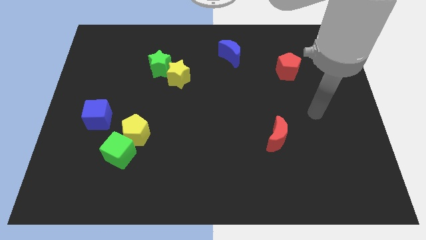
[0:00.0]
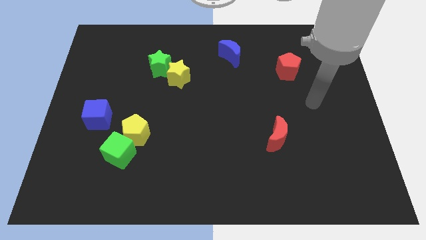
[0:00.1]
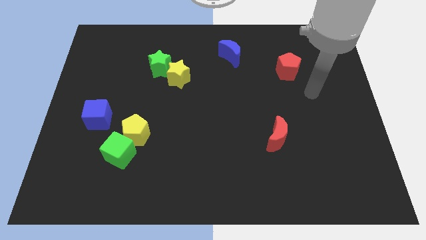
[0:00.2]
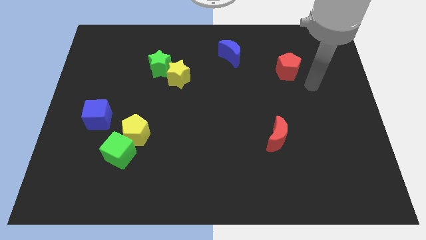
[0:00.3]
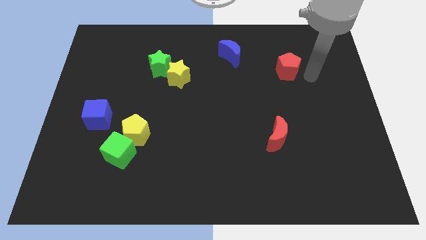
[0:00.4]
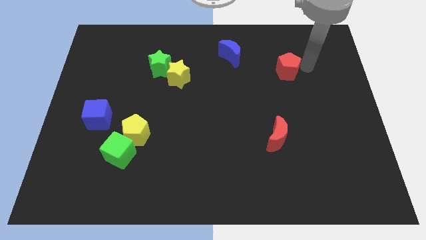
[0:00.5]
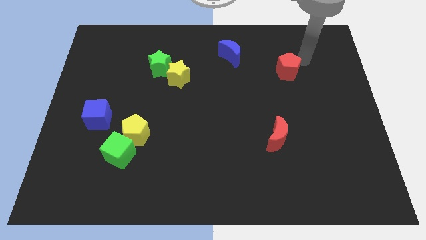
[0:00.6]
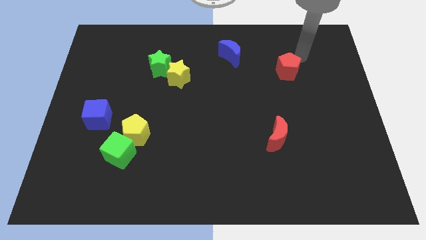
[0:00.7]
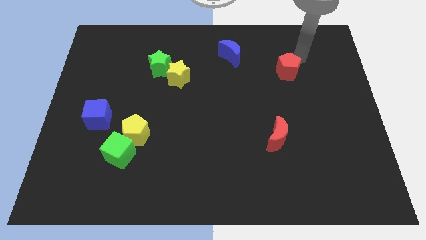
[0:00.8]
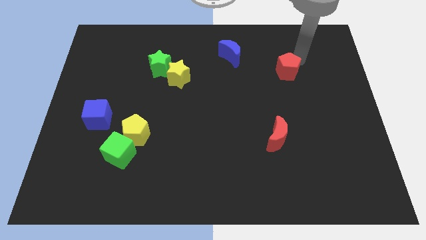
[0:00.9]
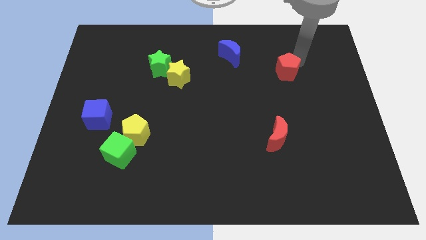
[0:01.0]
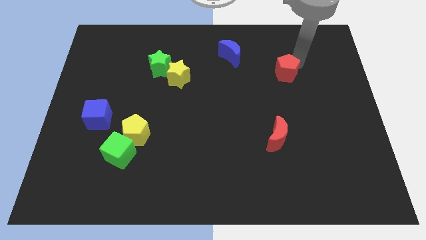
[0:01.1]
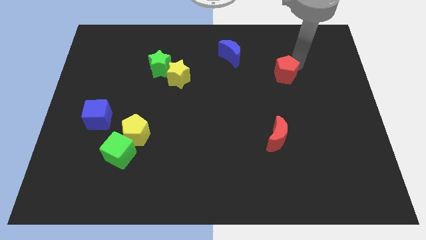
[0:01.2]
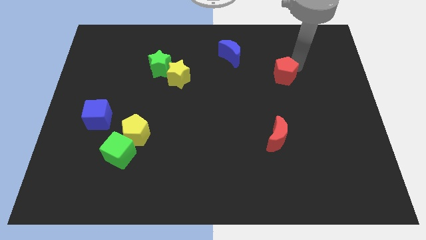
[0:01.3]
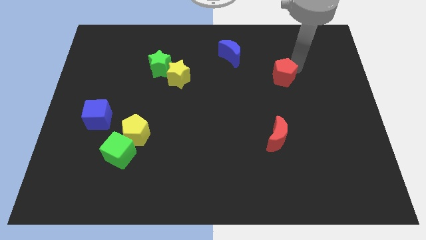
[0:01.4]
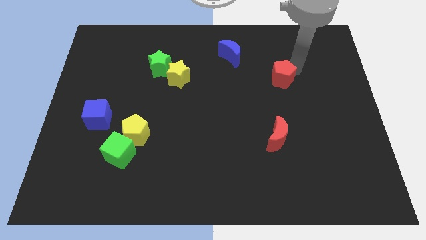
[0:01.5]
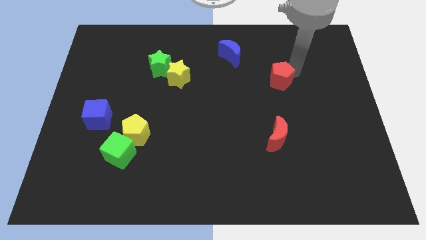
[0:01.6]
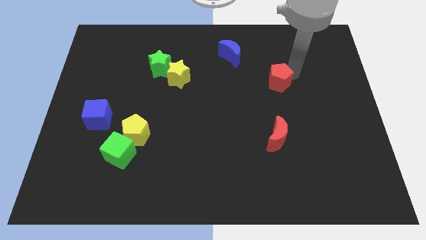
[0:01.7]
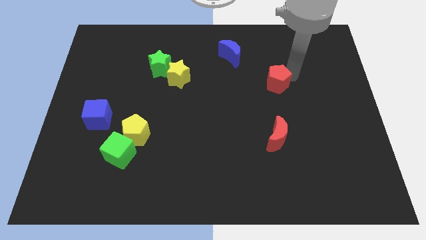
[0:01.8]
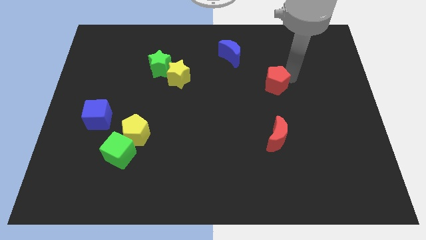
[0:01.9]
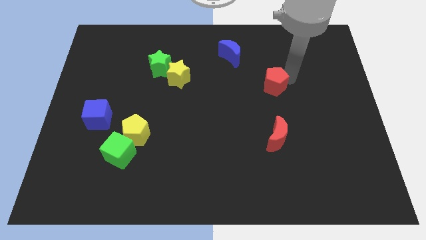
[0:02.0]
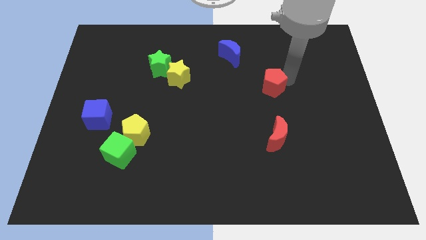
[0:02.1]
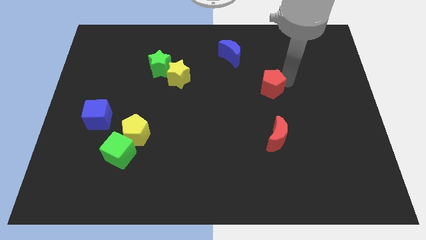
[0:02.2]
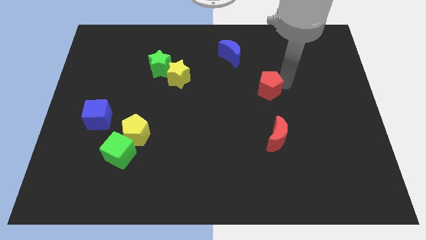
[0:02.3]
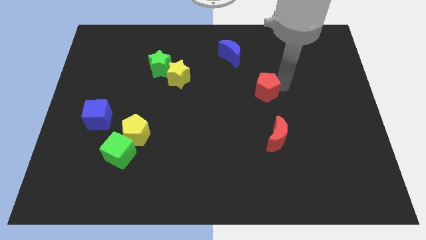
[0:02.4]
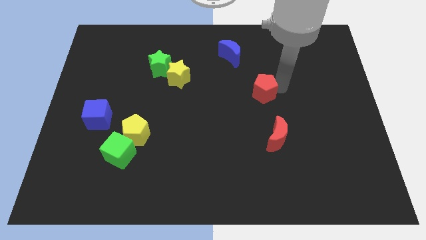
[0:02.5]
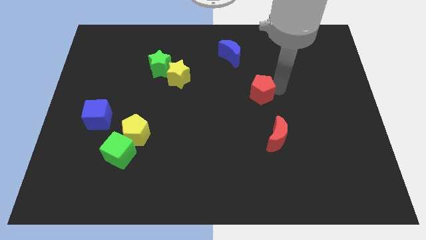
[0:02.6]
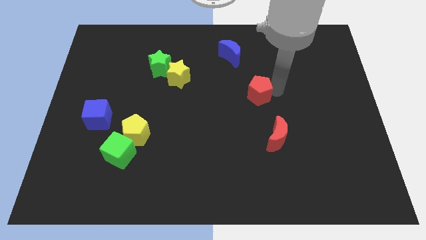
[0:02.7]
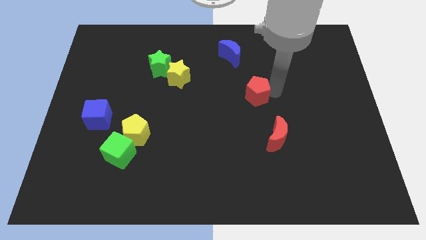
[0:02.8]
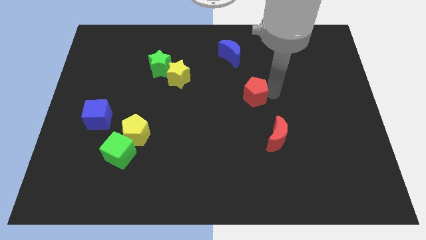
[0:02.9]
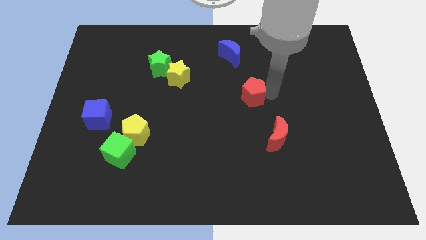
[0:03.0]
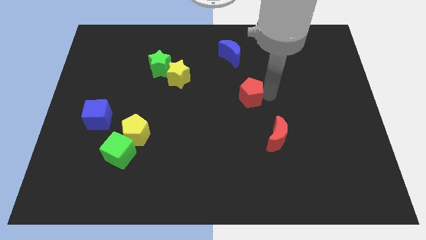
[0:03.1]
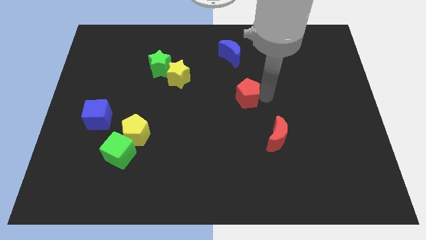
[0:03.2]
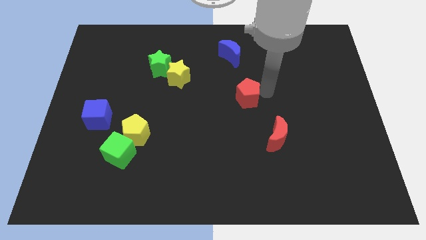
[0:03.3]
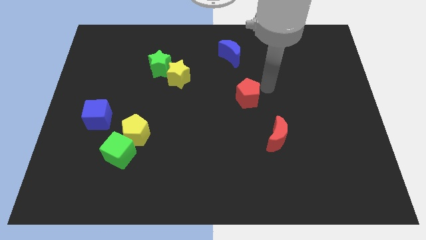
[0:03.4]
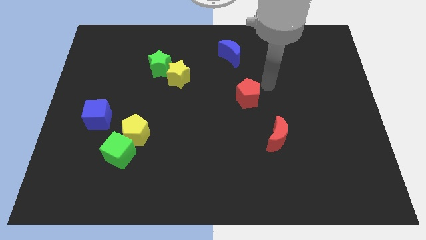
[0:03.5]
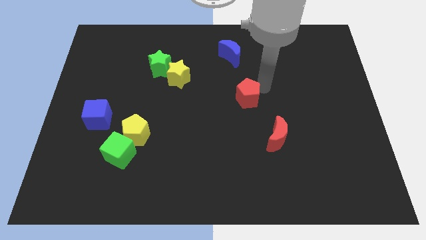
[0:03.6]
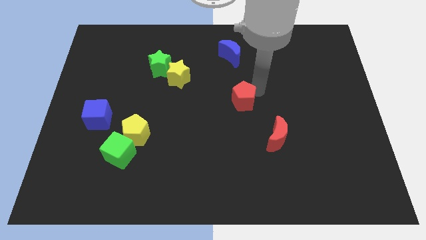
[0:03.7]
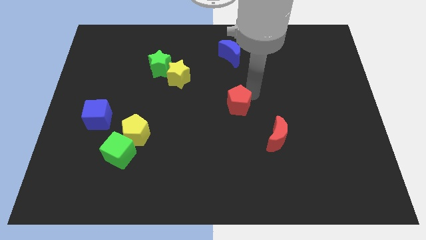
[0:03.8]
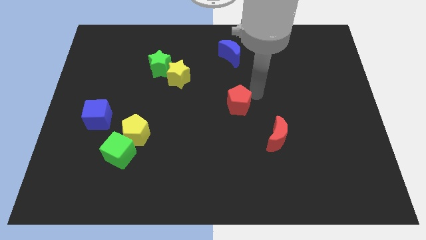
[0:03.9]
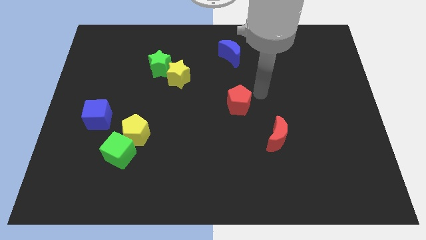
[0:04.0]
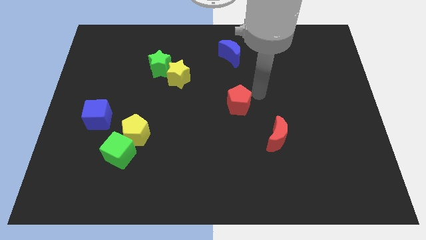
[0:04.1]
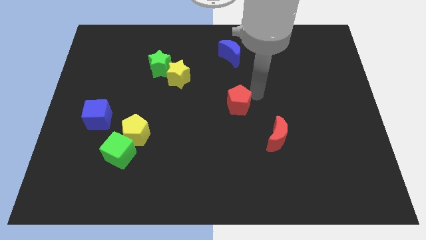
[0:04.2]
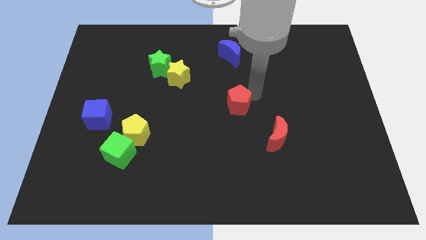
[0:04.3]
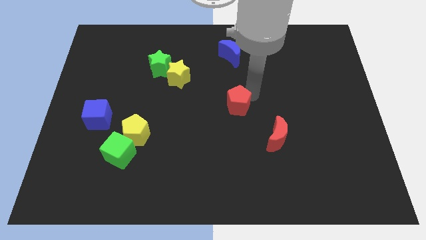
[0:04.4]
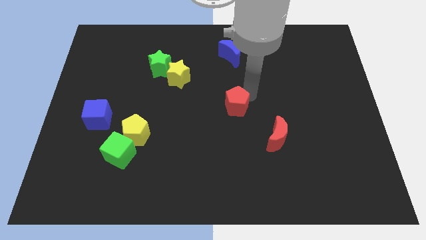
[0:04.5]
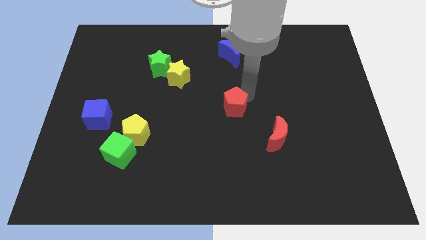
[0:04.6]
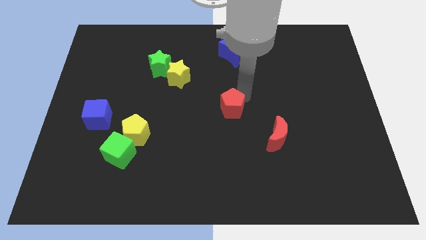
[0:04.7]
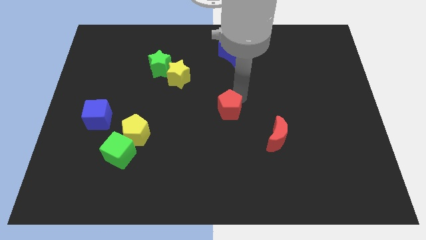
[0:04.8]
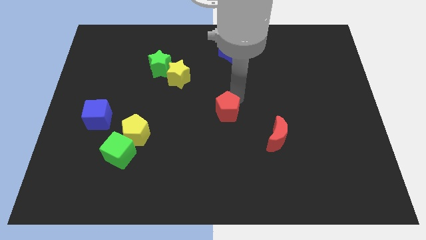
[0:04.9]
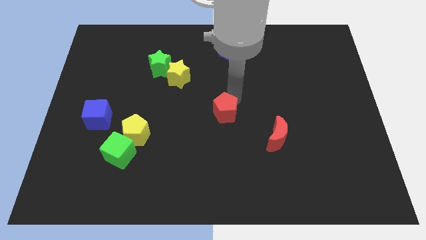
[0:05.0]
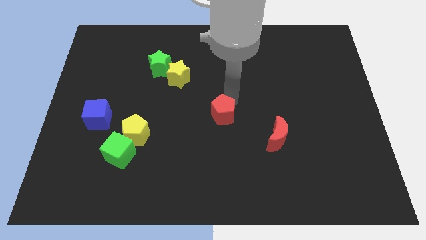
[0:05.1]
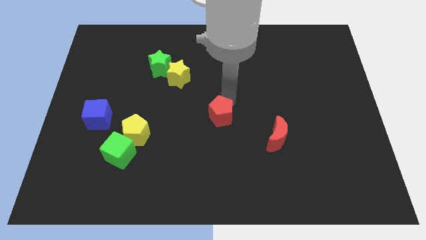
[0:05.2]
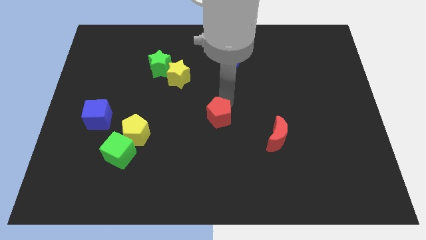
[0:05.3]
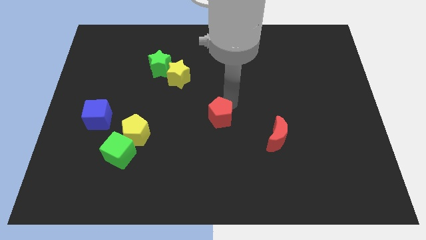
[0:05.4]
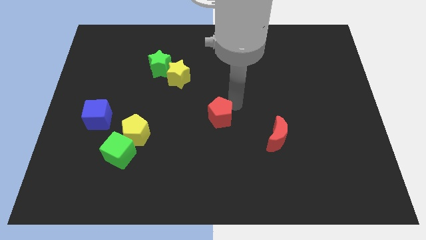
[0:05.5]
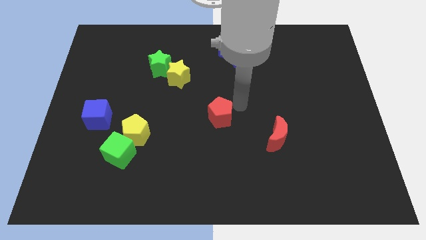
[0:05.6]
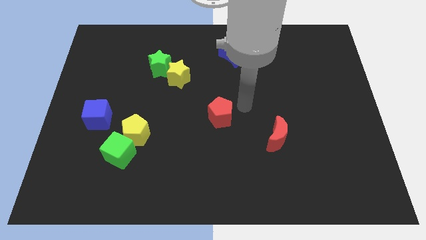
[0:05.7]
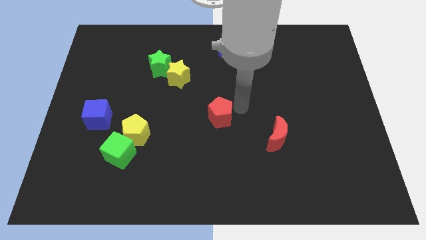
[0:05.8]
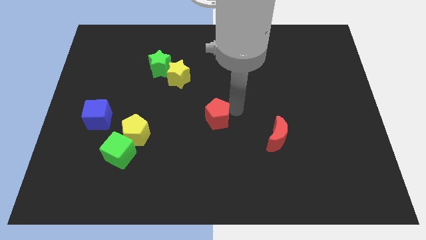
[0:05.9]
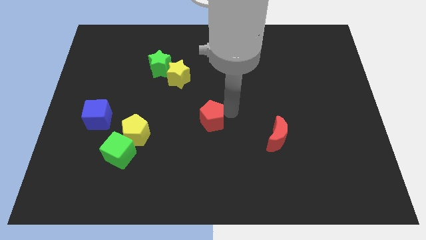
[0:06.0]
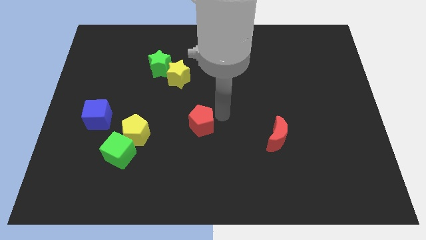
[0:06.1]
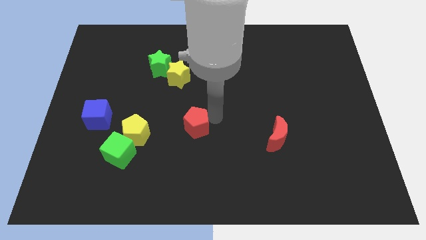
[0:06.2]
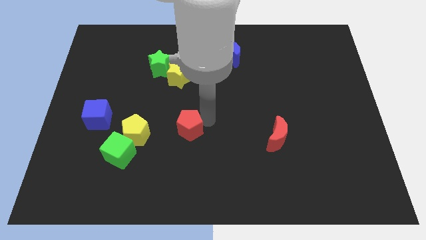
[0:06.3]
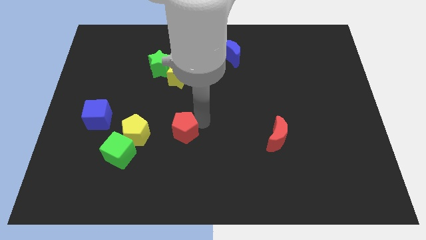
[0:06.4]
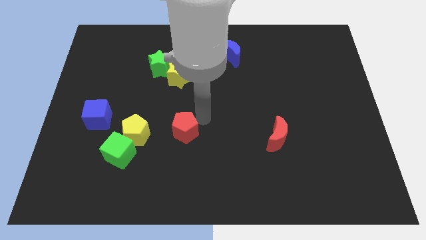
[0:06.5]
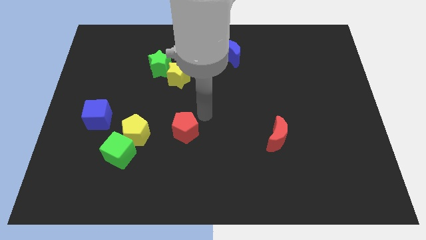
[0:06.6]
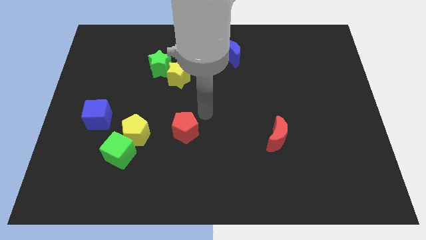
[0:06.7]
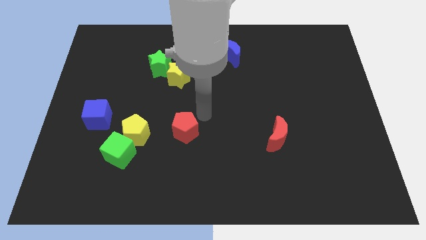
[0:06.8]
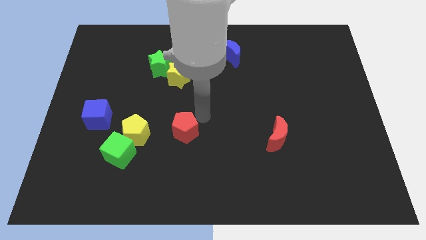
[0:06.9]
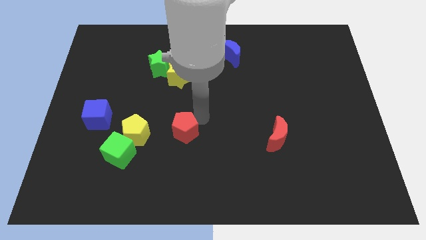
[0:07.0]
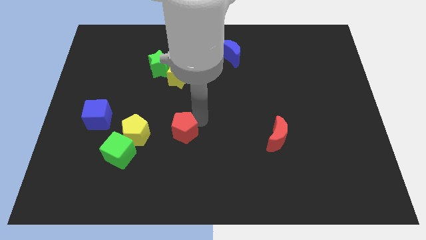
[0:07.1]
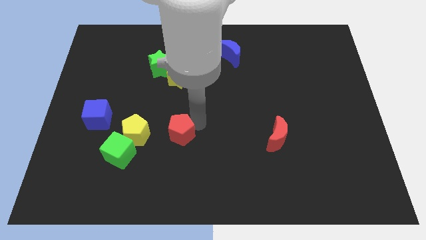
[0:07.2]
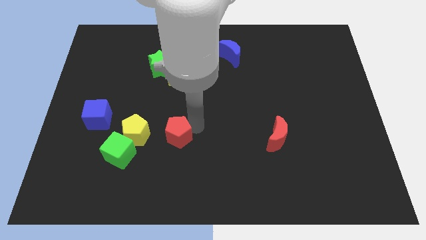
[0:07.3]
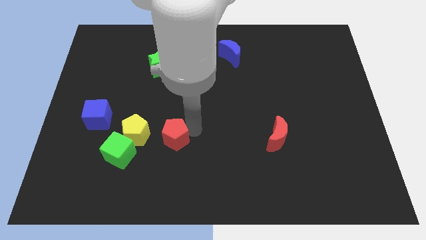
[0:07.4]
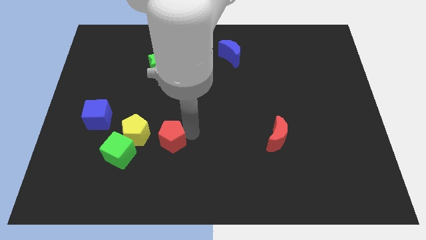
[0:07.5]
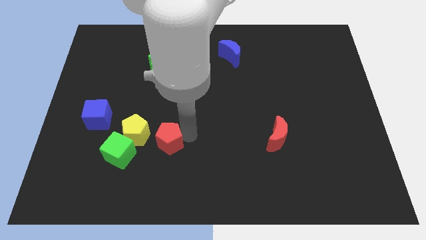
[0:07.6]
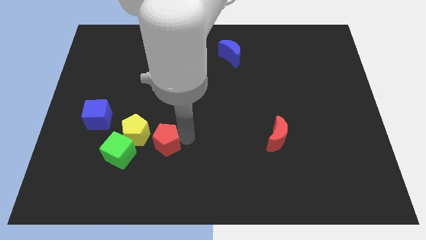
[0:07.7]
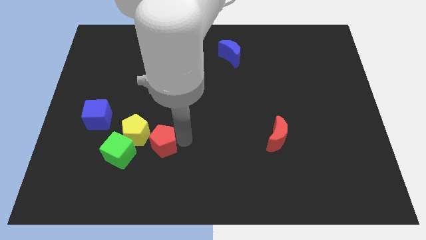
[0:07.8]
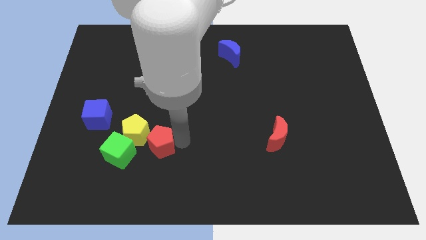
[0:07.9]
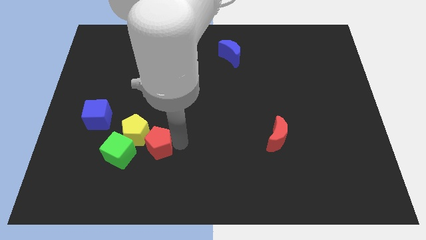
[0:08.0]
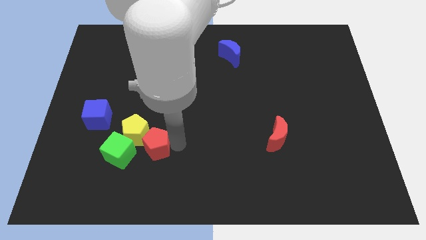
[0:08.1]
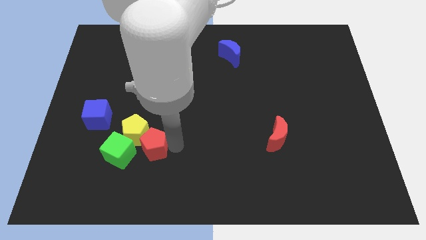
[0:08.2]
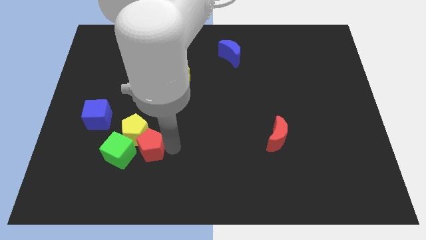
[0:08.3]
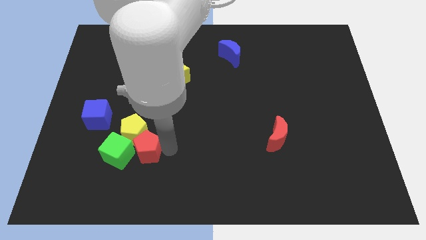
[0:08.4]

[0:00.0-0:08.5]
move the red pentagon next to the green cube
